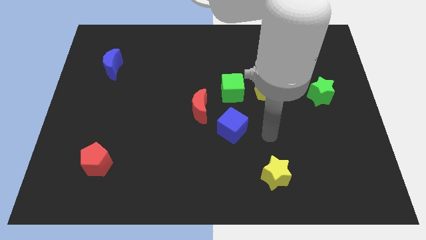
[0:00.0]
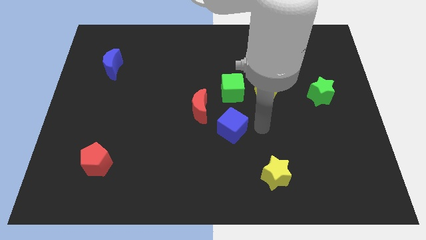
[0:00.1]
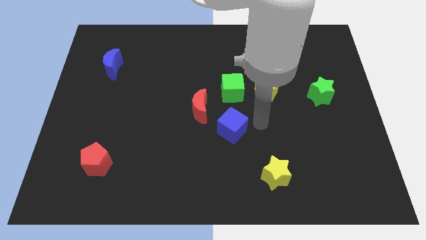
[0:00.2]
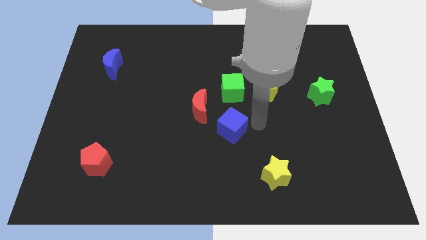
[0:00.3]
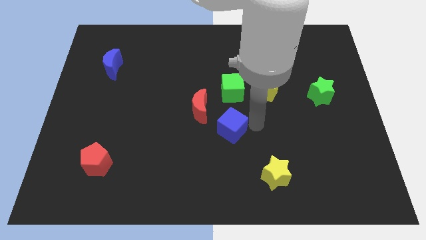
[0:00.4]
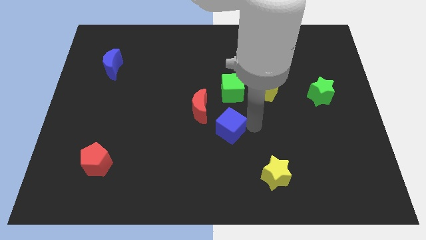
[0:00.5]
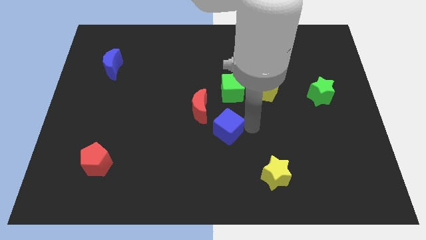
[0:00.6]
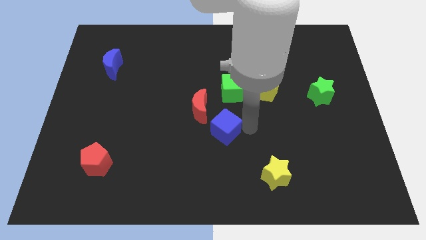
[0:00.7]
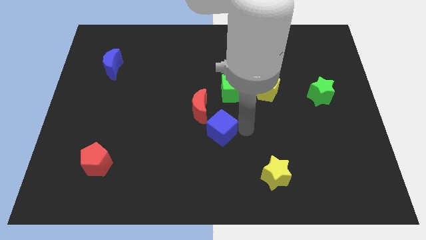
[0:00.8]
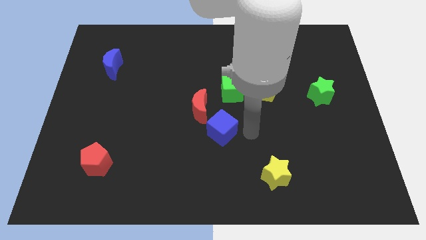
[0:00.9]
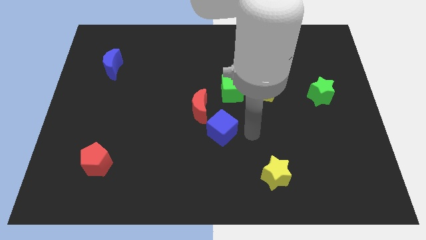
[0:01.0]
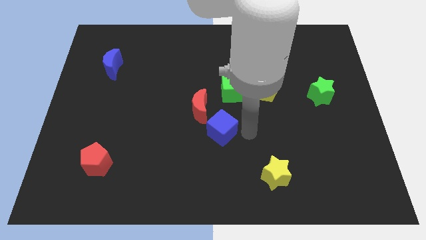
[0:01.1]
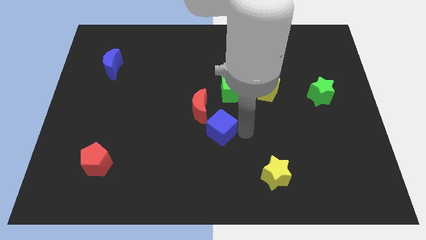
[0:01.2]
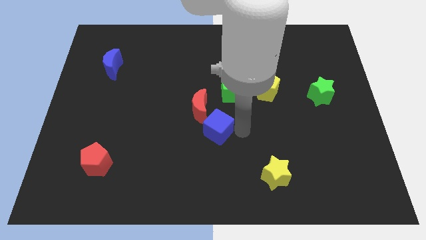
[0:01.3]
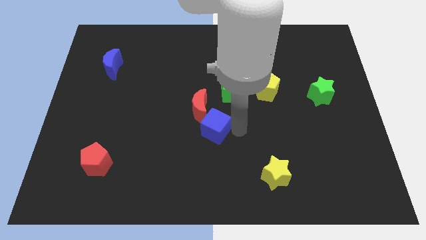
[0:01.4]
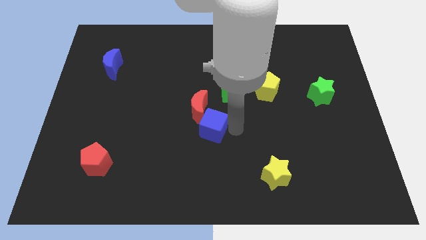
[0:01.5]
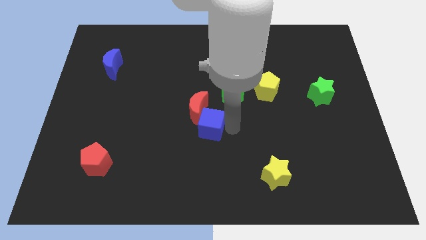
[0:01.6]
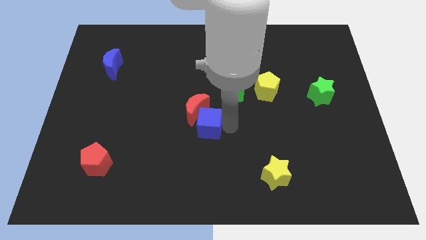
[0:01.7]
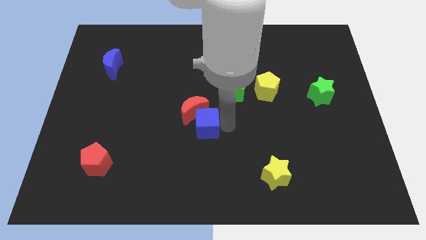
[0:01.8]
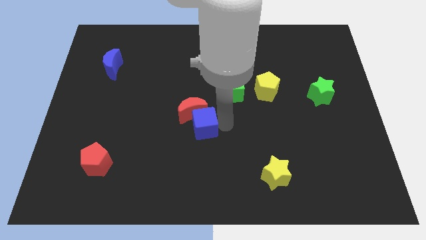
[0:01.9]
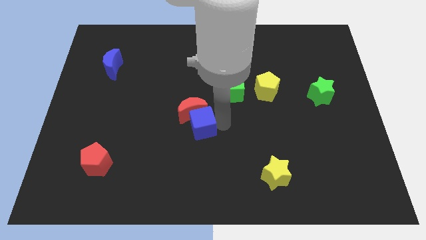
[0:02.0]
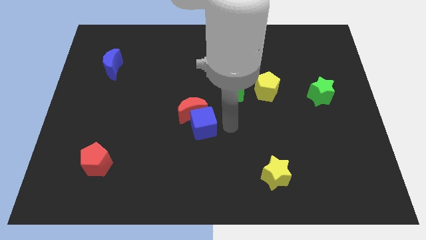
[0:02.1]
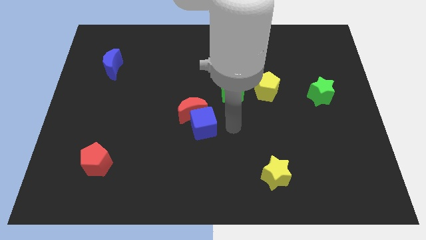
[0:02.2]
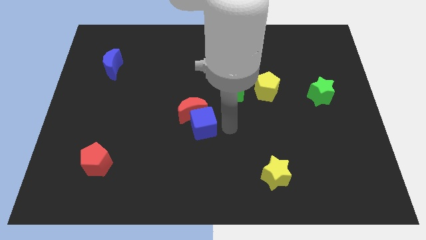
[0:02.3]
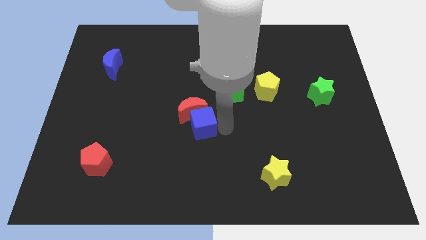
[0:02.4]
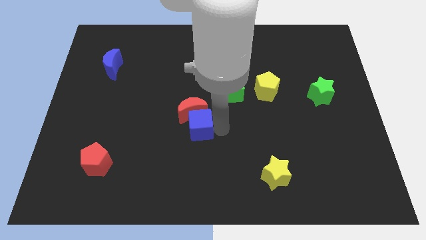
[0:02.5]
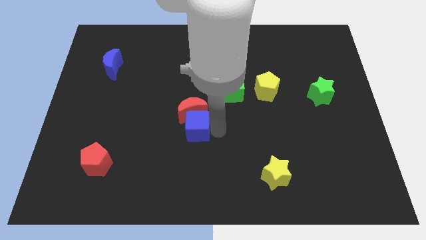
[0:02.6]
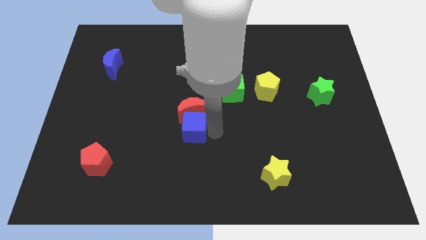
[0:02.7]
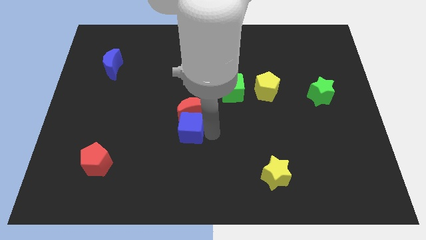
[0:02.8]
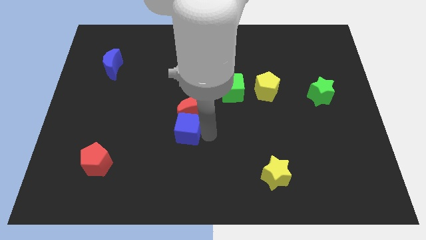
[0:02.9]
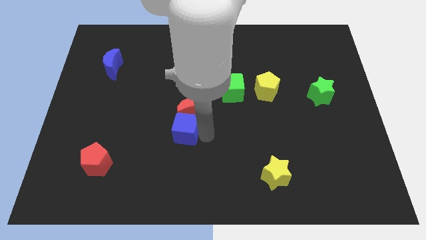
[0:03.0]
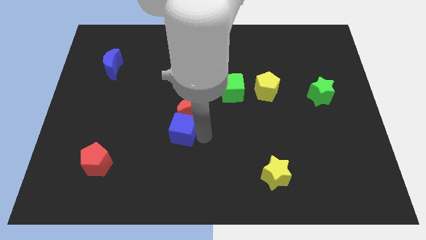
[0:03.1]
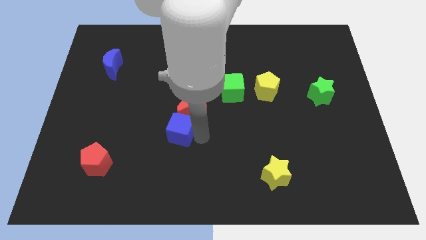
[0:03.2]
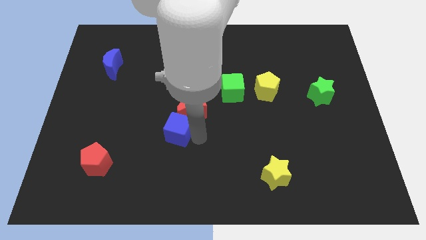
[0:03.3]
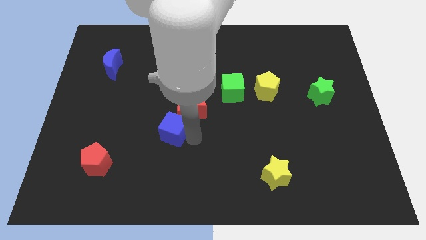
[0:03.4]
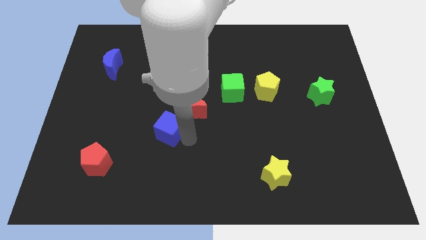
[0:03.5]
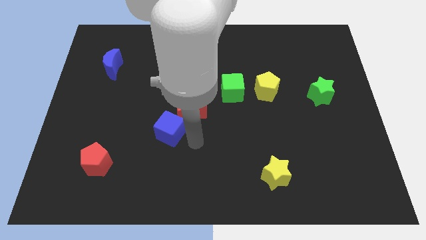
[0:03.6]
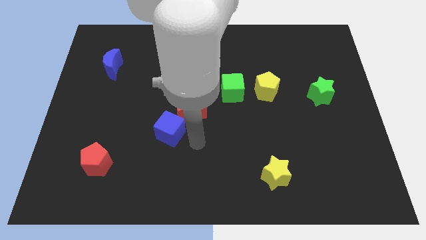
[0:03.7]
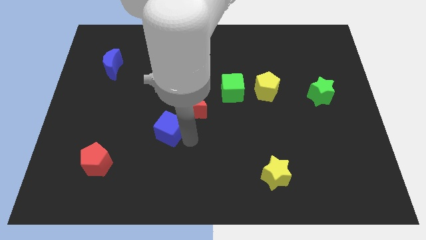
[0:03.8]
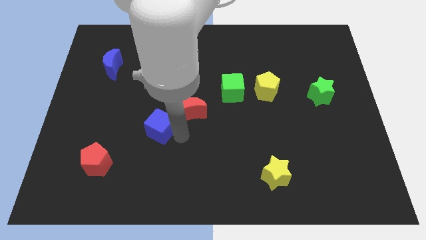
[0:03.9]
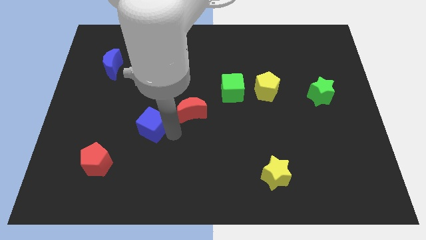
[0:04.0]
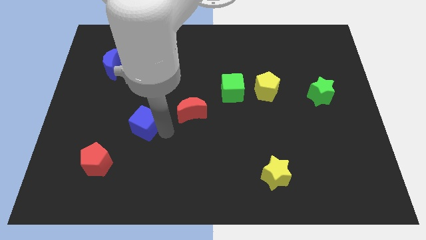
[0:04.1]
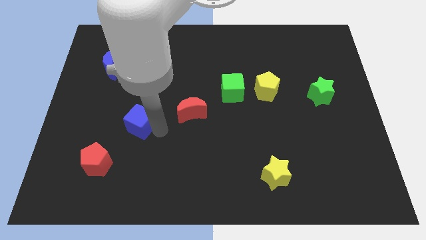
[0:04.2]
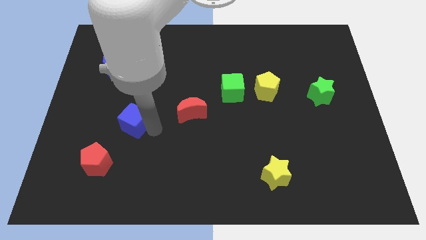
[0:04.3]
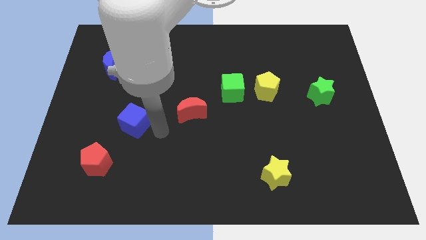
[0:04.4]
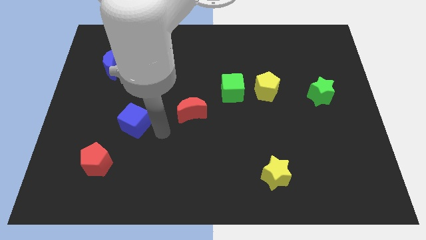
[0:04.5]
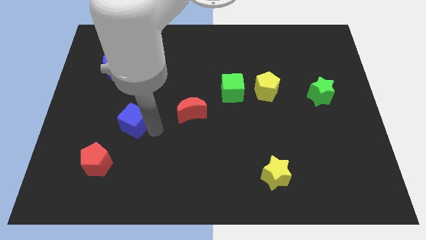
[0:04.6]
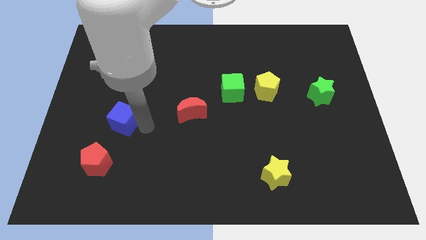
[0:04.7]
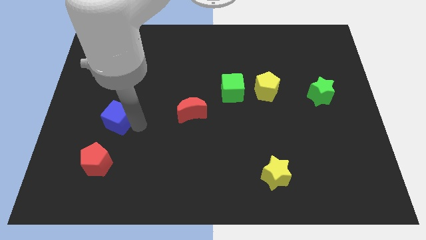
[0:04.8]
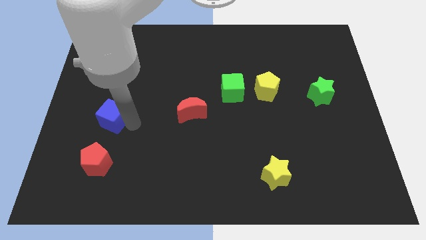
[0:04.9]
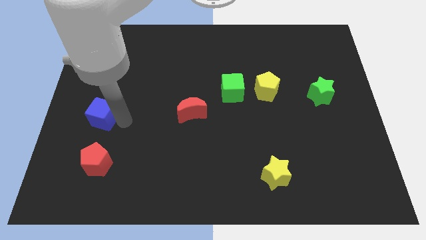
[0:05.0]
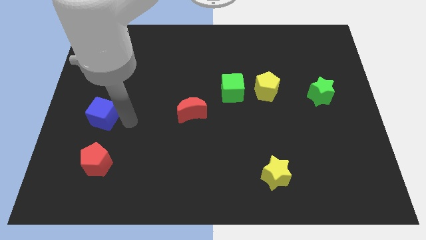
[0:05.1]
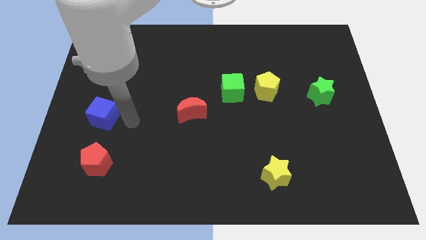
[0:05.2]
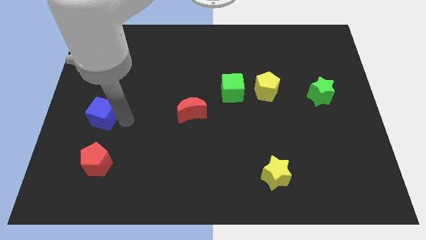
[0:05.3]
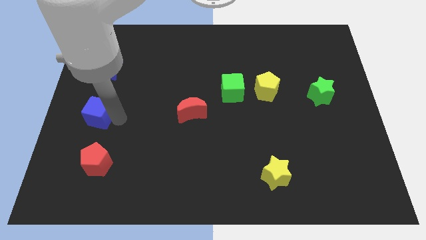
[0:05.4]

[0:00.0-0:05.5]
put the blue cube to the center left
